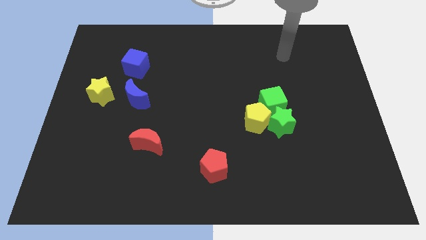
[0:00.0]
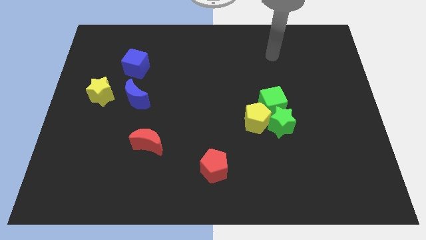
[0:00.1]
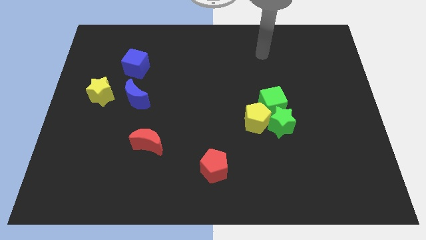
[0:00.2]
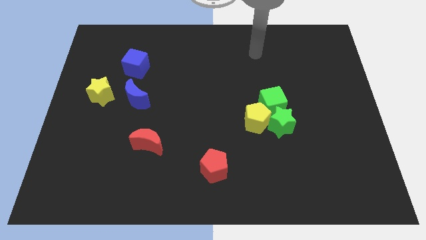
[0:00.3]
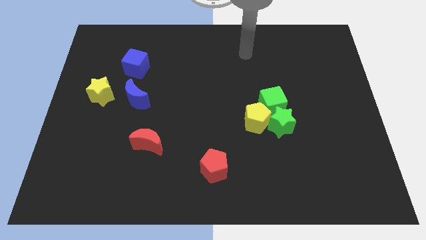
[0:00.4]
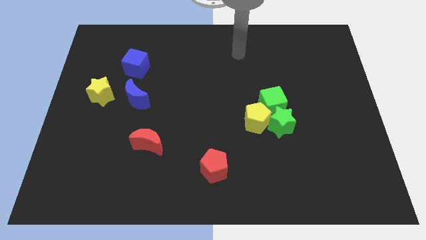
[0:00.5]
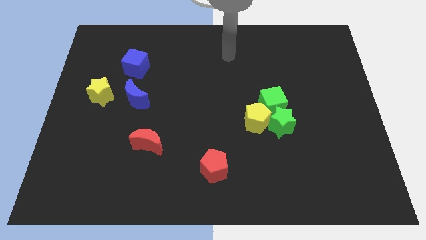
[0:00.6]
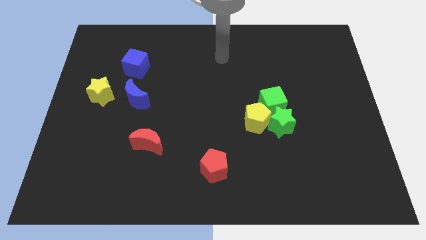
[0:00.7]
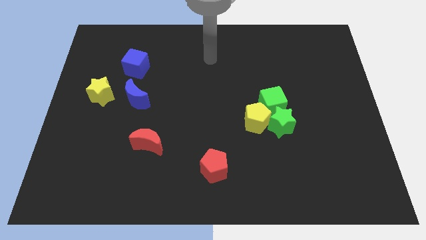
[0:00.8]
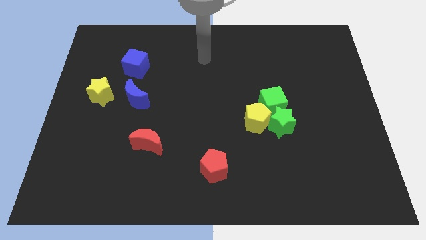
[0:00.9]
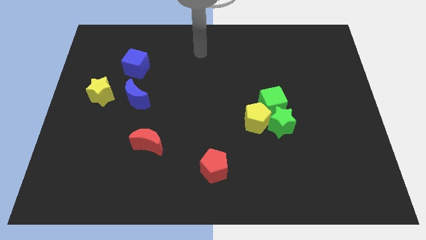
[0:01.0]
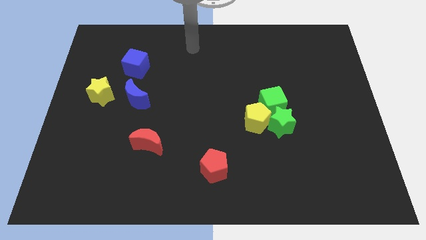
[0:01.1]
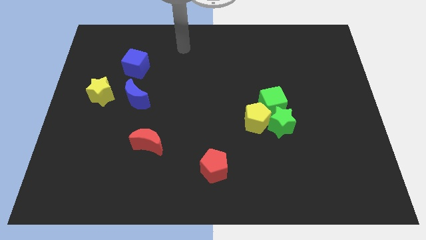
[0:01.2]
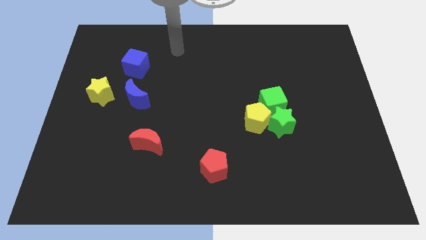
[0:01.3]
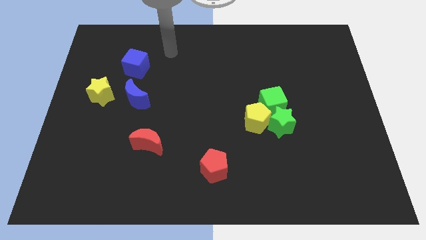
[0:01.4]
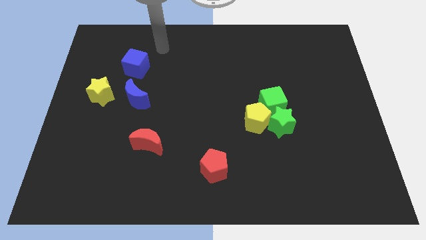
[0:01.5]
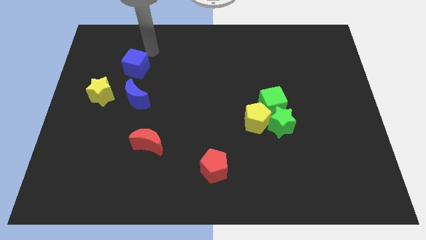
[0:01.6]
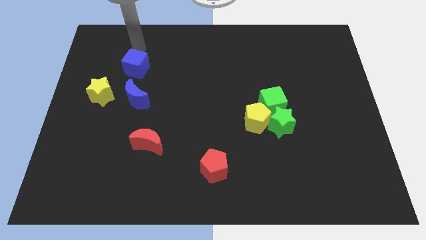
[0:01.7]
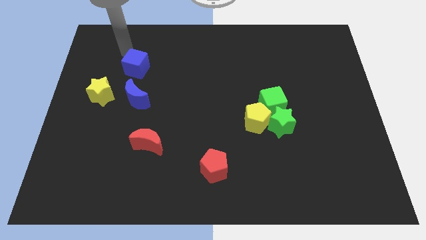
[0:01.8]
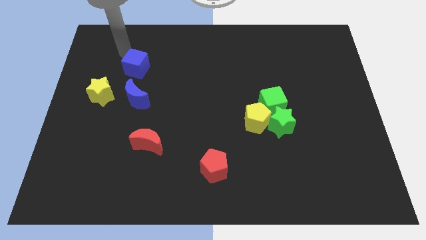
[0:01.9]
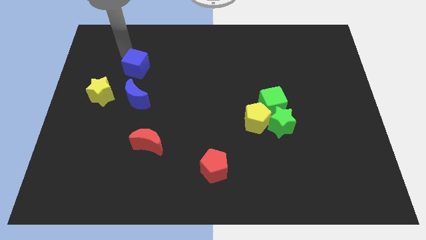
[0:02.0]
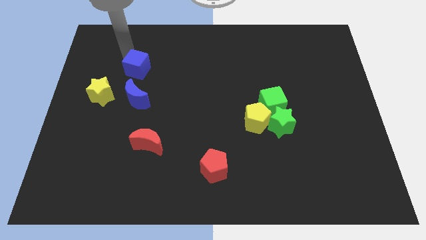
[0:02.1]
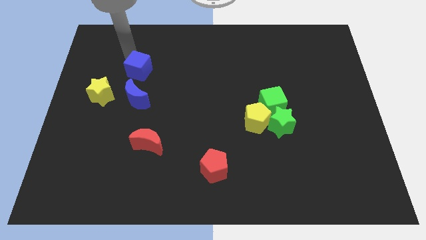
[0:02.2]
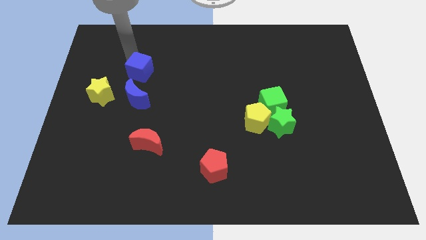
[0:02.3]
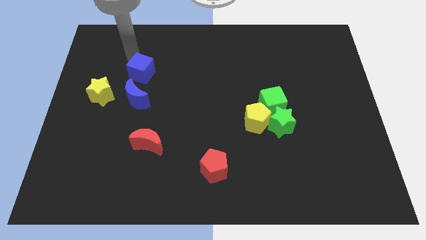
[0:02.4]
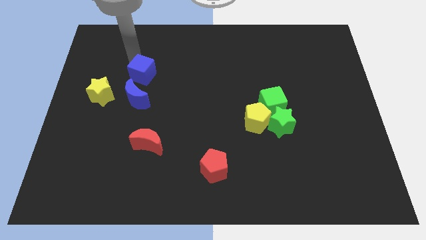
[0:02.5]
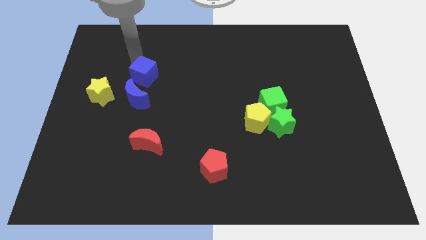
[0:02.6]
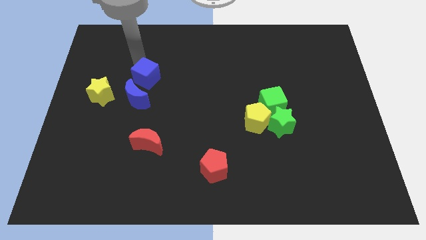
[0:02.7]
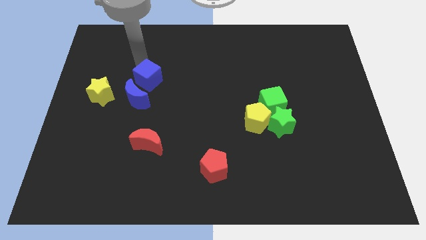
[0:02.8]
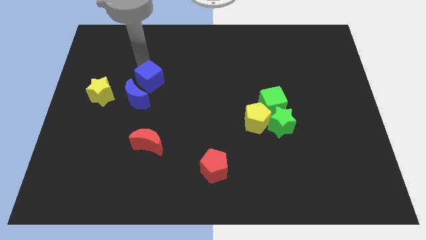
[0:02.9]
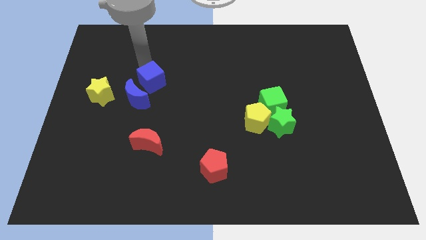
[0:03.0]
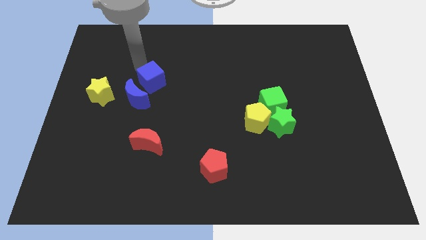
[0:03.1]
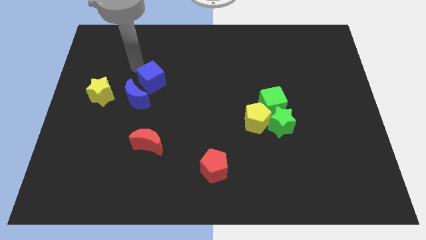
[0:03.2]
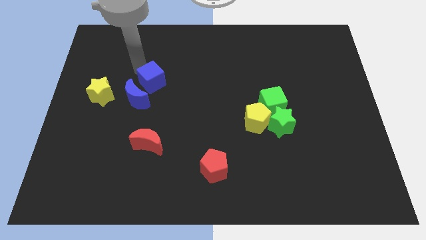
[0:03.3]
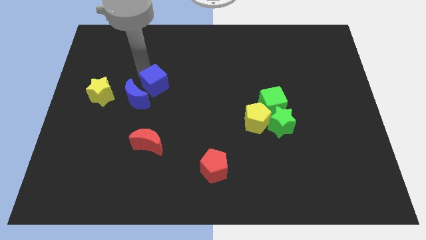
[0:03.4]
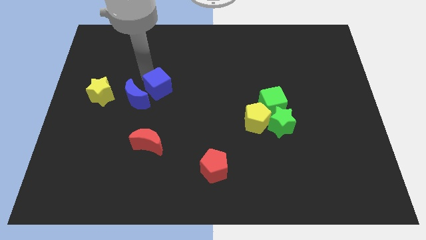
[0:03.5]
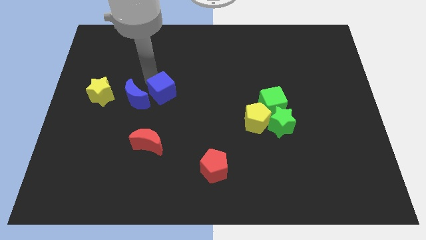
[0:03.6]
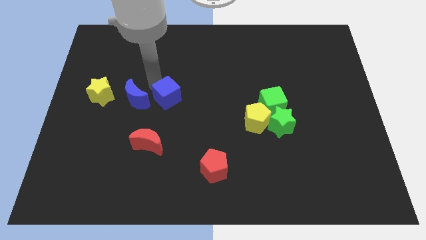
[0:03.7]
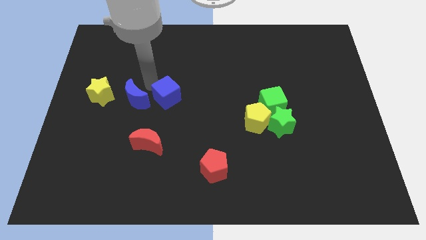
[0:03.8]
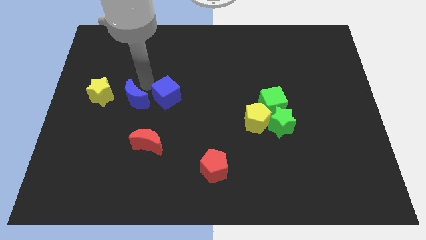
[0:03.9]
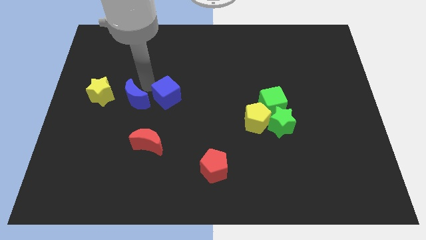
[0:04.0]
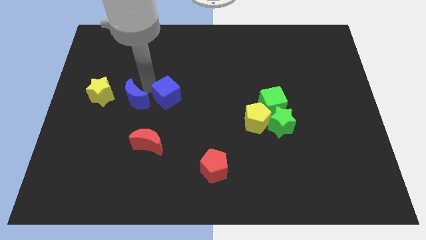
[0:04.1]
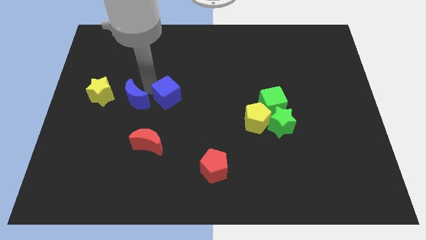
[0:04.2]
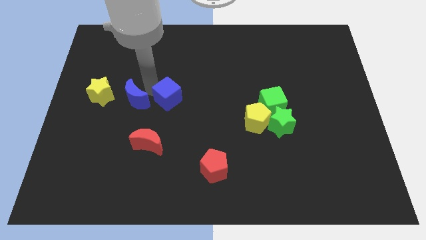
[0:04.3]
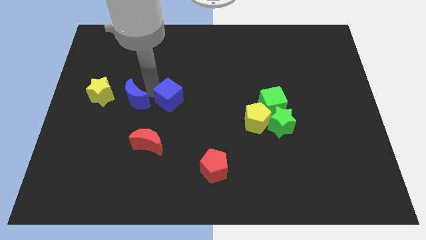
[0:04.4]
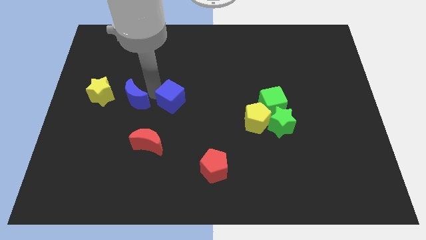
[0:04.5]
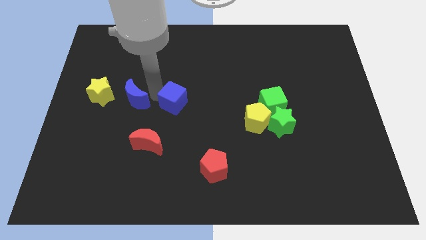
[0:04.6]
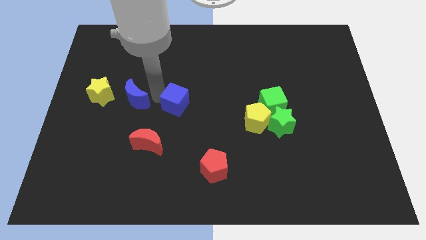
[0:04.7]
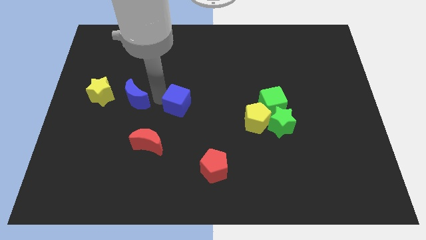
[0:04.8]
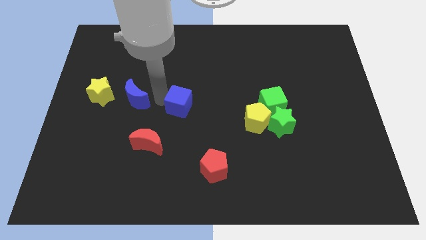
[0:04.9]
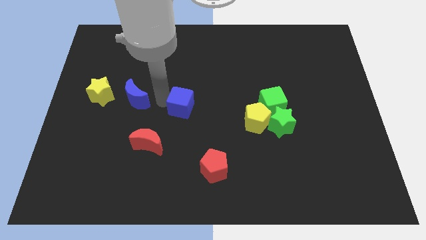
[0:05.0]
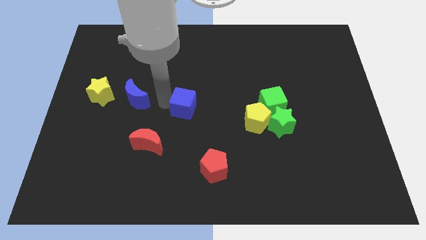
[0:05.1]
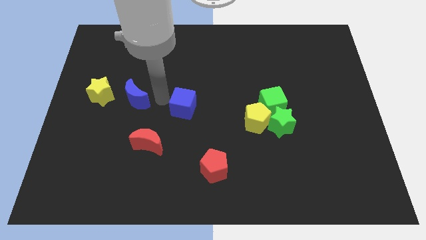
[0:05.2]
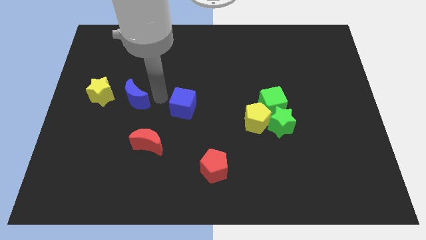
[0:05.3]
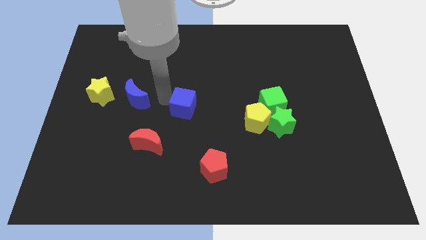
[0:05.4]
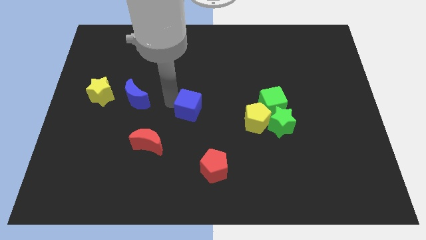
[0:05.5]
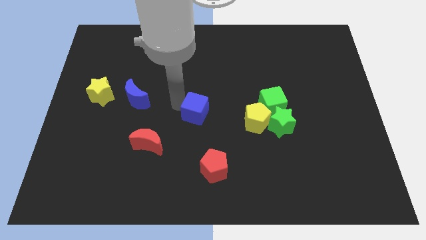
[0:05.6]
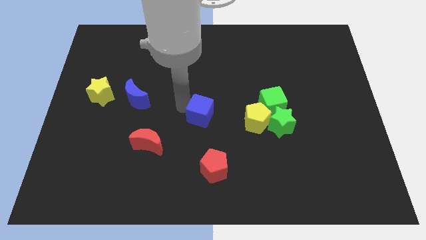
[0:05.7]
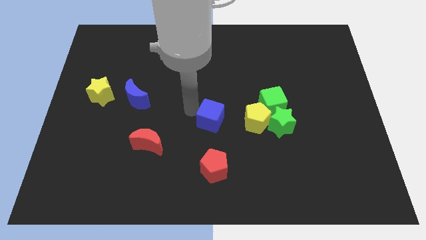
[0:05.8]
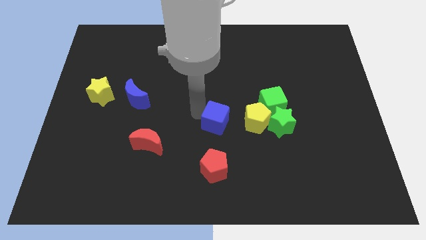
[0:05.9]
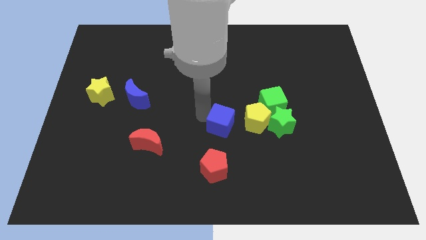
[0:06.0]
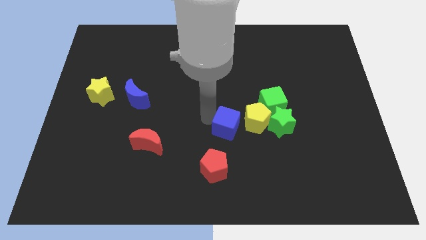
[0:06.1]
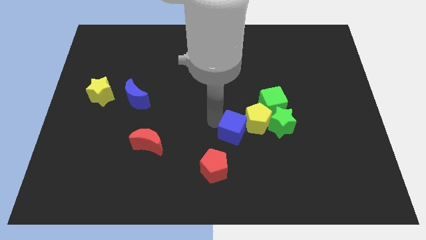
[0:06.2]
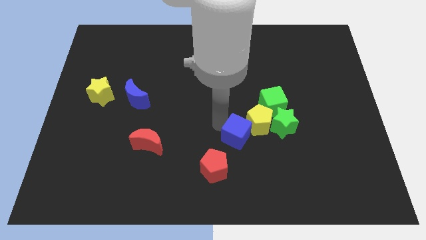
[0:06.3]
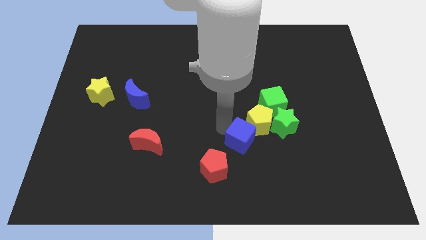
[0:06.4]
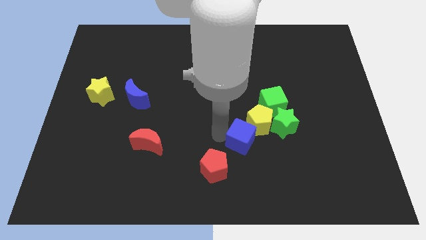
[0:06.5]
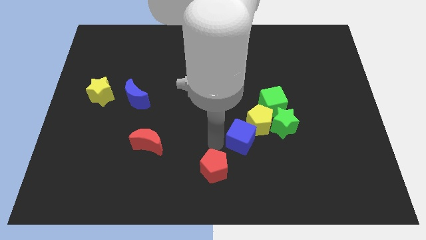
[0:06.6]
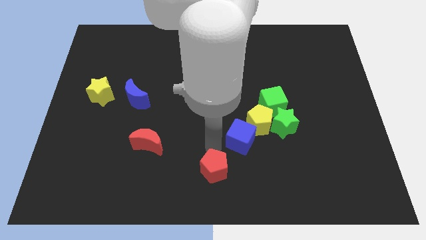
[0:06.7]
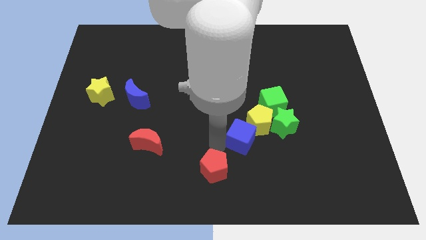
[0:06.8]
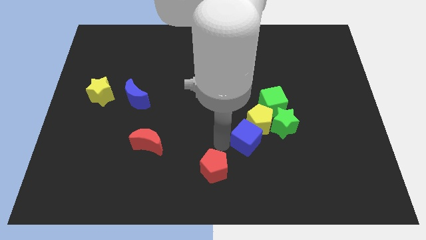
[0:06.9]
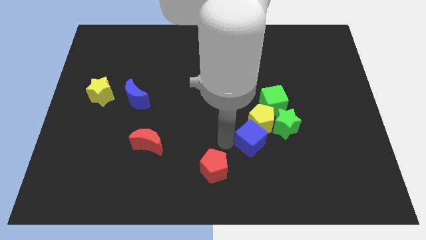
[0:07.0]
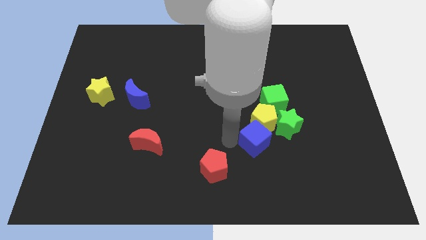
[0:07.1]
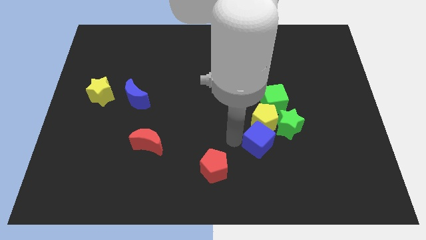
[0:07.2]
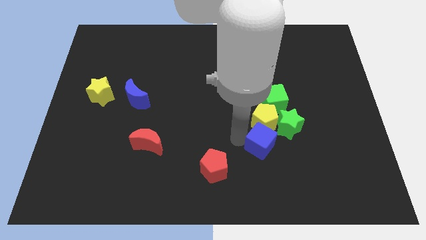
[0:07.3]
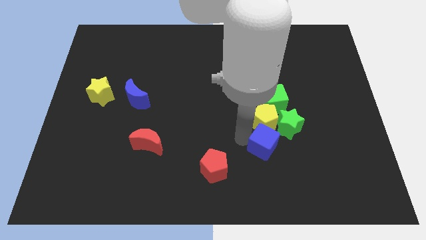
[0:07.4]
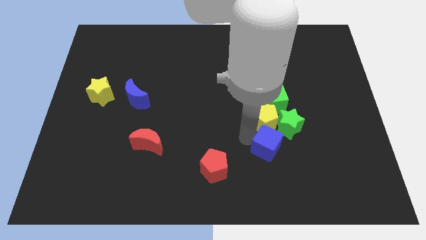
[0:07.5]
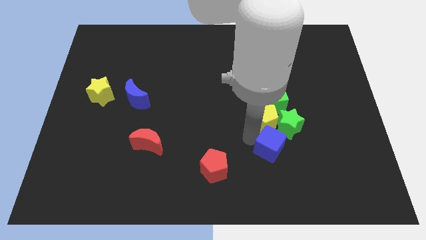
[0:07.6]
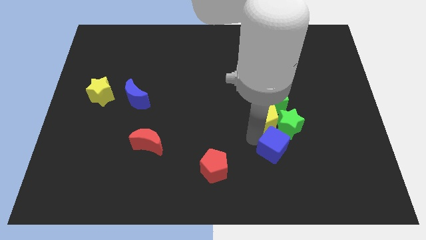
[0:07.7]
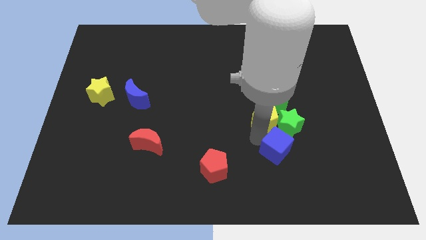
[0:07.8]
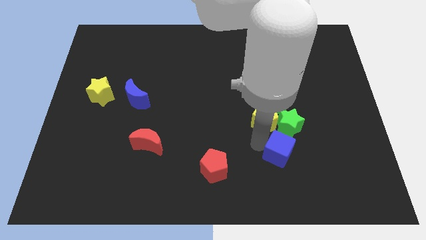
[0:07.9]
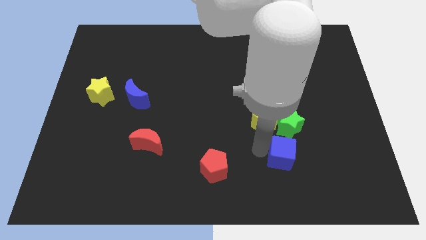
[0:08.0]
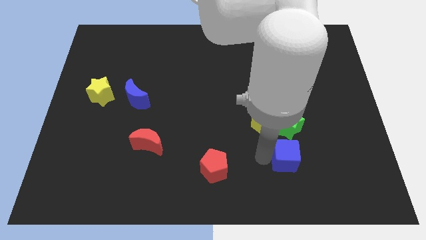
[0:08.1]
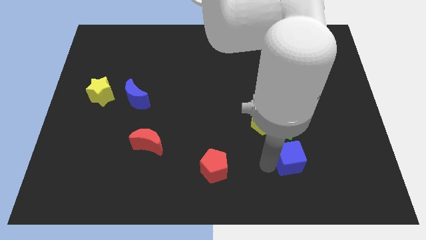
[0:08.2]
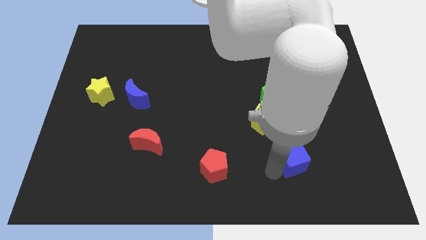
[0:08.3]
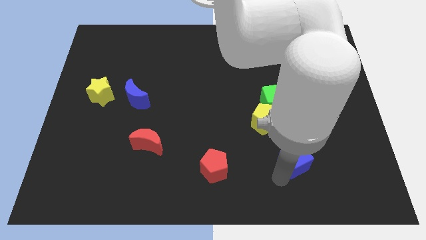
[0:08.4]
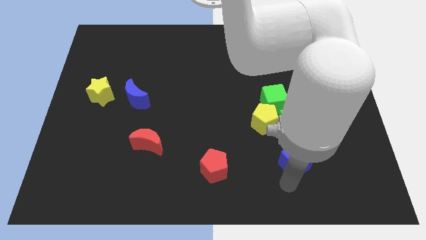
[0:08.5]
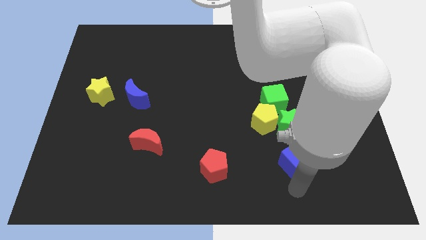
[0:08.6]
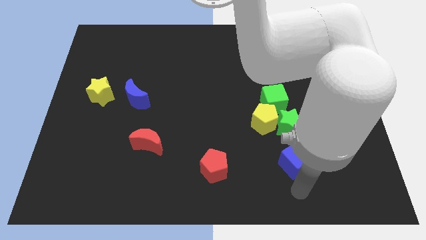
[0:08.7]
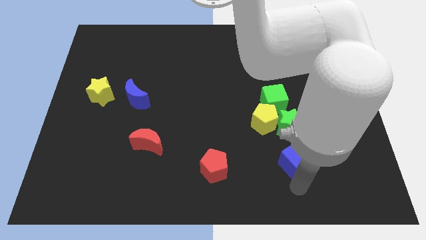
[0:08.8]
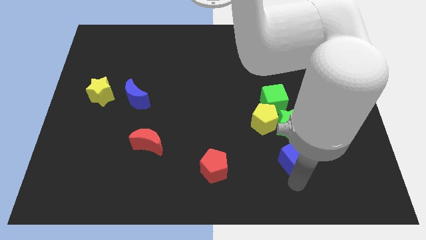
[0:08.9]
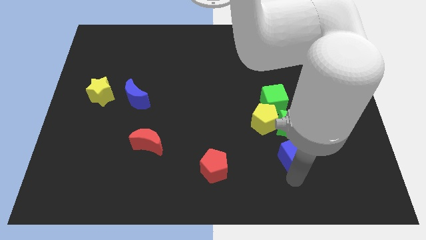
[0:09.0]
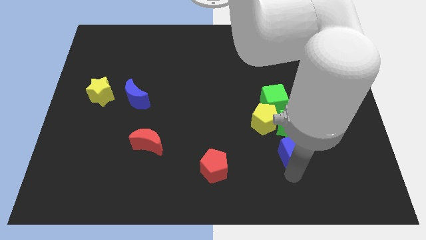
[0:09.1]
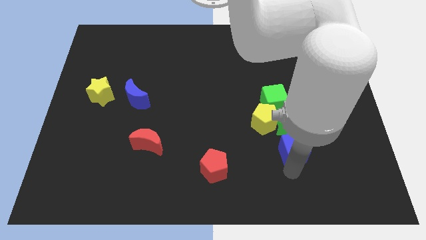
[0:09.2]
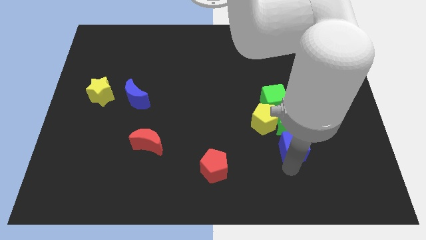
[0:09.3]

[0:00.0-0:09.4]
push the blue cube towards the green star
